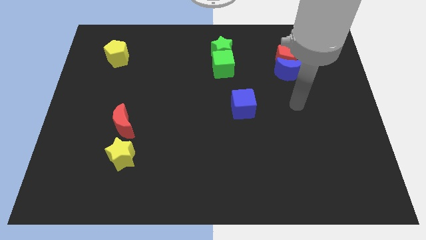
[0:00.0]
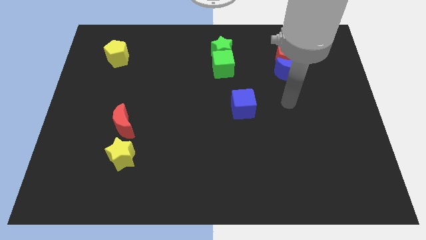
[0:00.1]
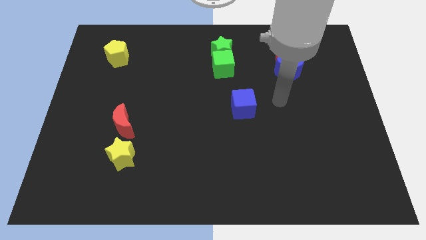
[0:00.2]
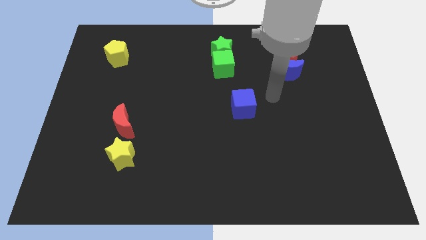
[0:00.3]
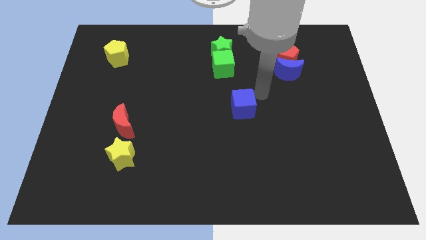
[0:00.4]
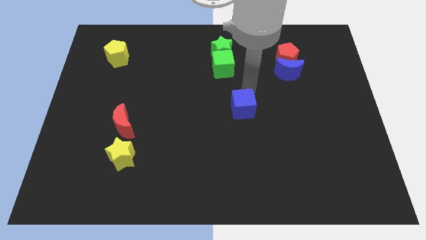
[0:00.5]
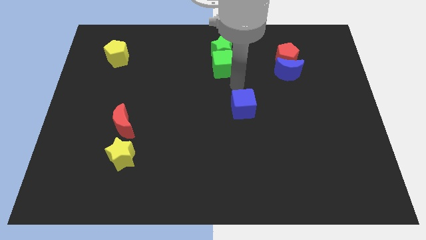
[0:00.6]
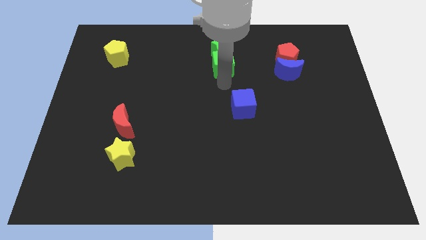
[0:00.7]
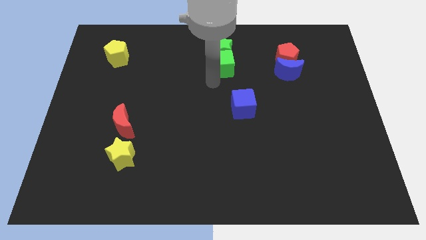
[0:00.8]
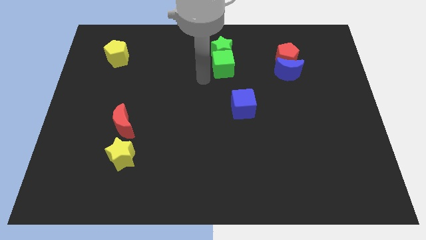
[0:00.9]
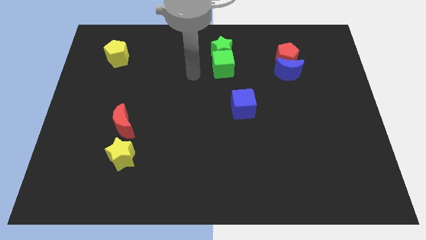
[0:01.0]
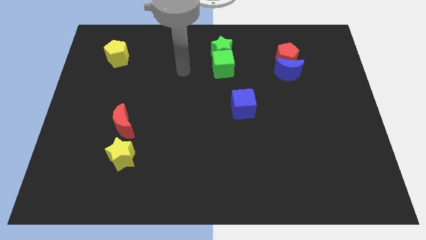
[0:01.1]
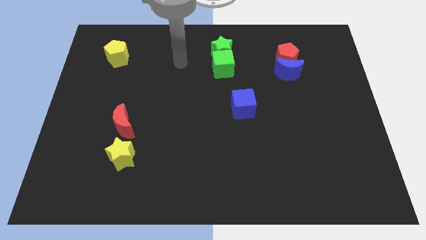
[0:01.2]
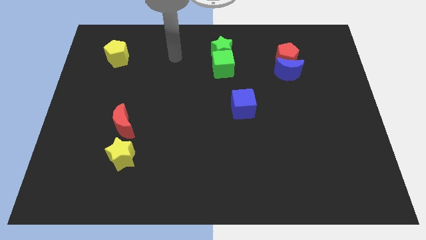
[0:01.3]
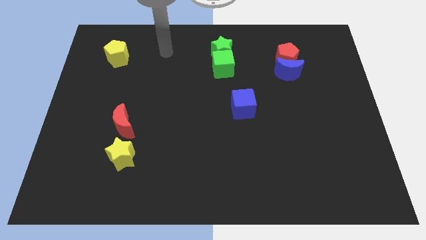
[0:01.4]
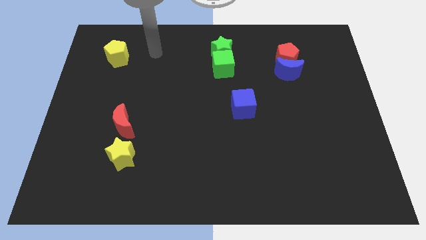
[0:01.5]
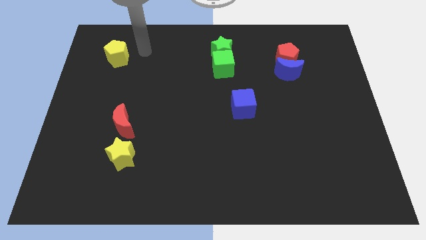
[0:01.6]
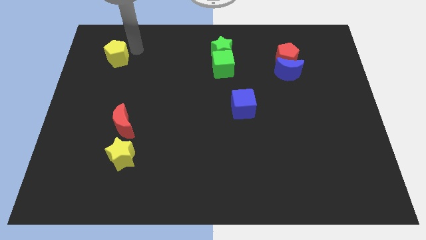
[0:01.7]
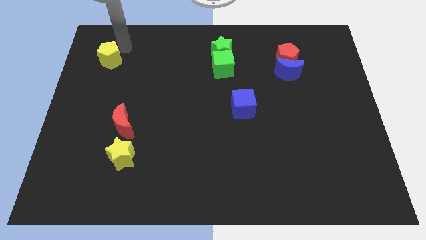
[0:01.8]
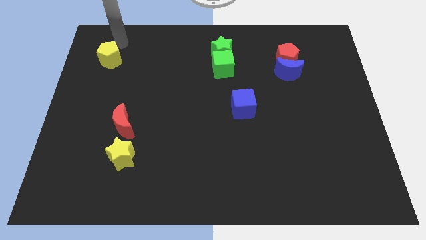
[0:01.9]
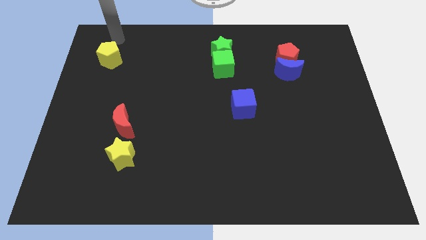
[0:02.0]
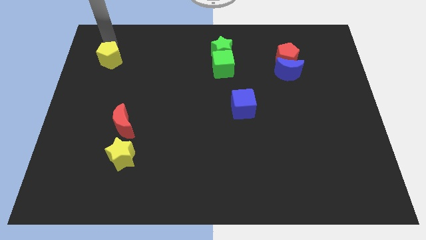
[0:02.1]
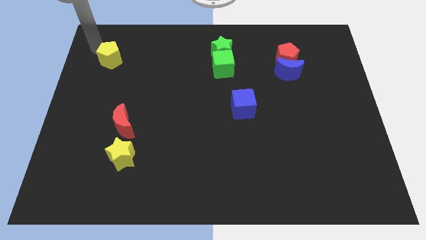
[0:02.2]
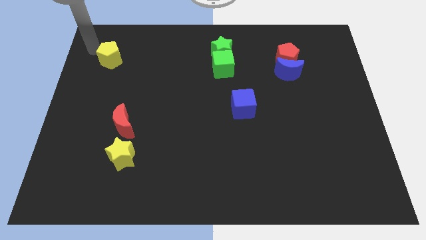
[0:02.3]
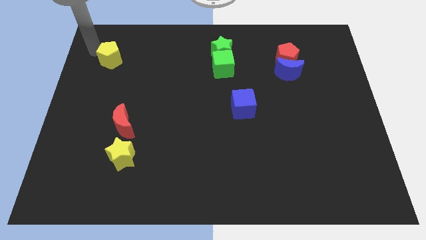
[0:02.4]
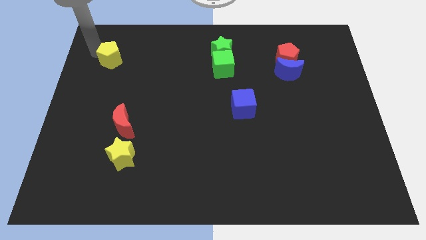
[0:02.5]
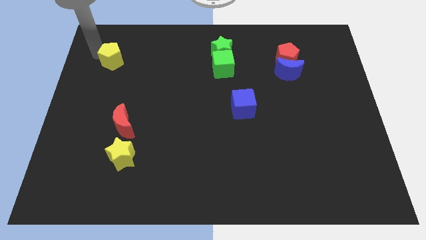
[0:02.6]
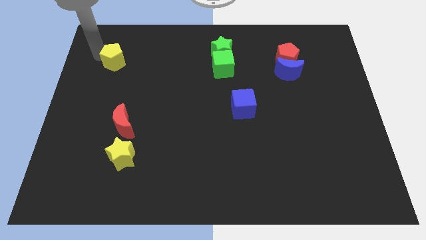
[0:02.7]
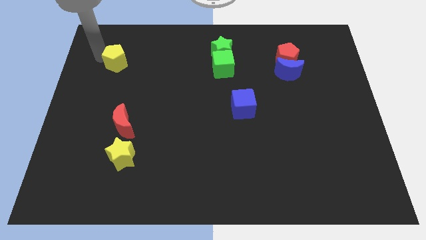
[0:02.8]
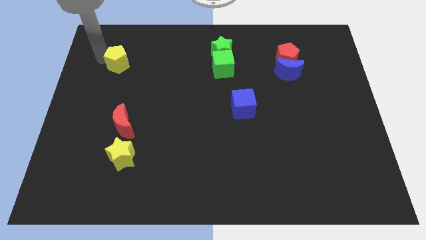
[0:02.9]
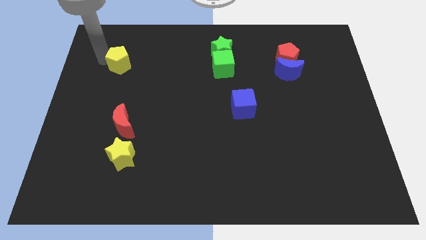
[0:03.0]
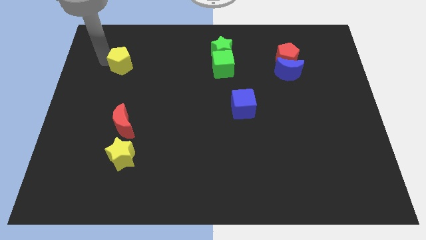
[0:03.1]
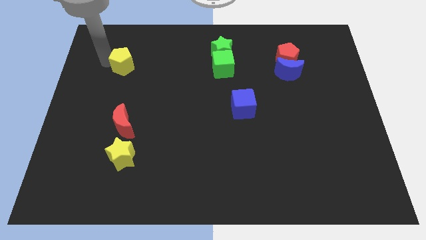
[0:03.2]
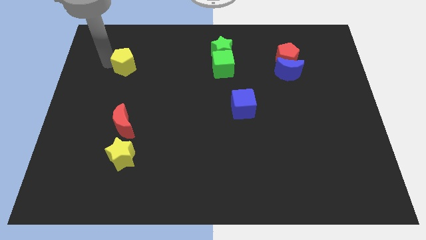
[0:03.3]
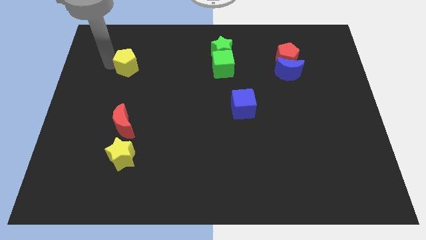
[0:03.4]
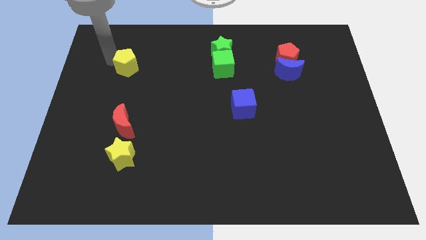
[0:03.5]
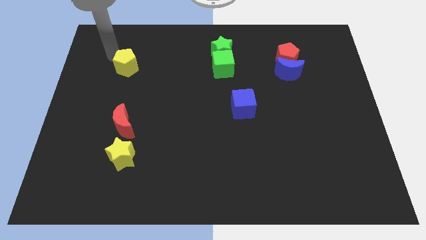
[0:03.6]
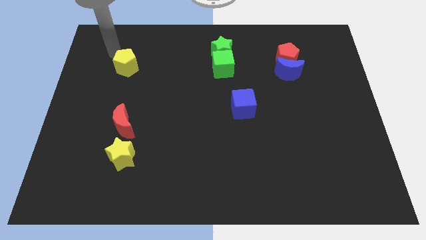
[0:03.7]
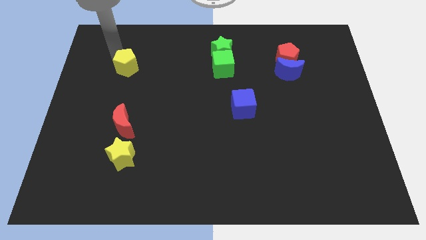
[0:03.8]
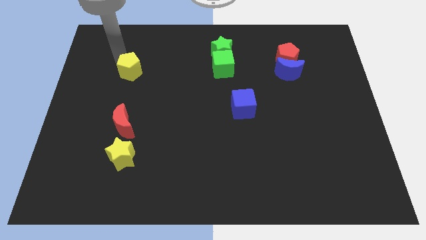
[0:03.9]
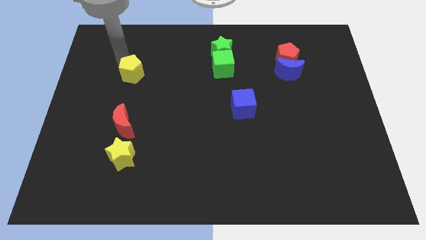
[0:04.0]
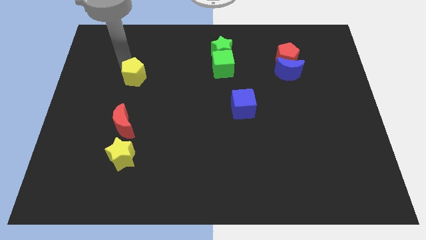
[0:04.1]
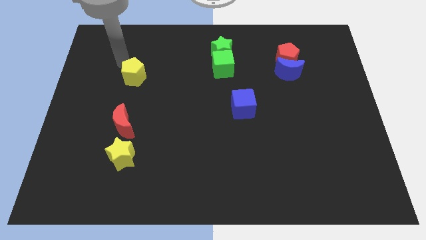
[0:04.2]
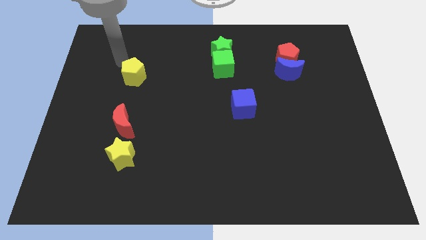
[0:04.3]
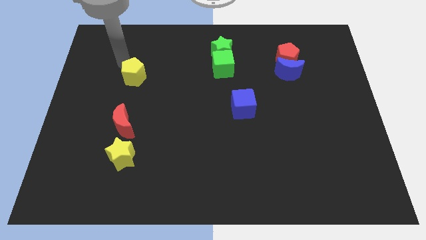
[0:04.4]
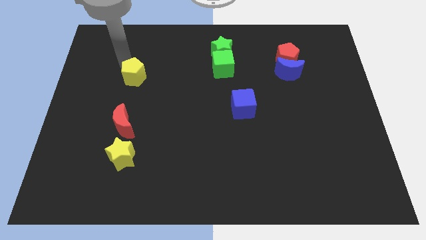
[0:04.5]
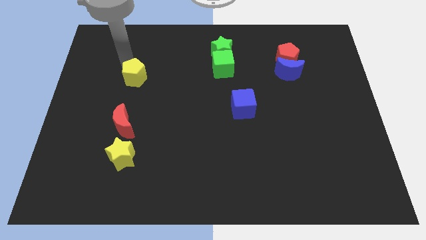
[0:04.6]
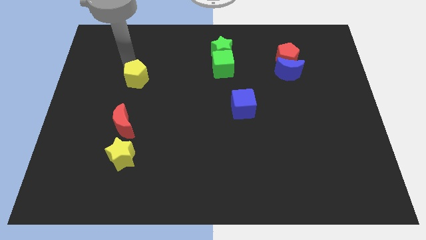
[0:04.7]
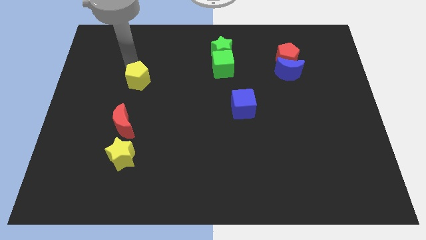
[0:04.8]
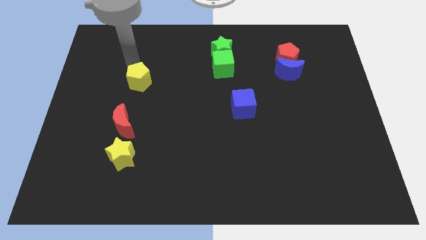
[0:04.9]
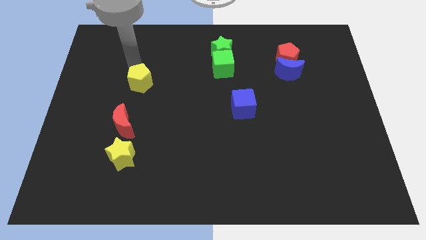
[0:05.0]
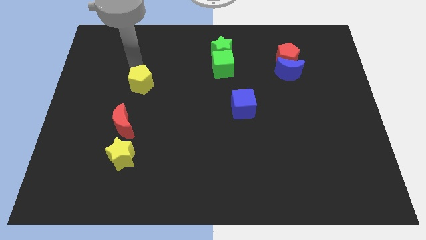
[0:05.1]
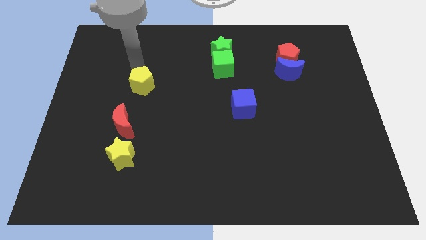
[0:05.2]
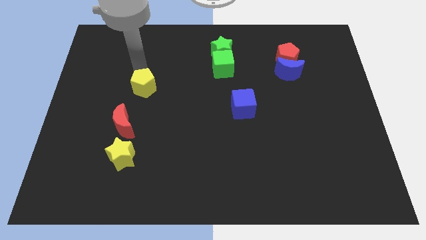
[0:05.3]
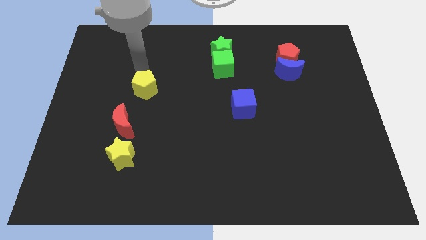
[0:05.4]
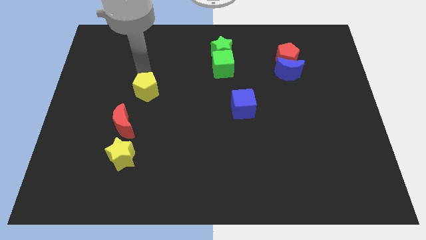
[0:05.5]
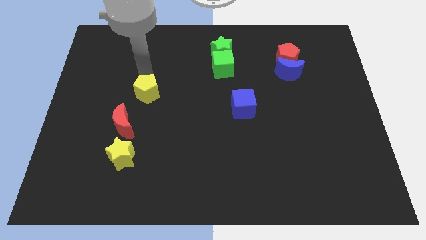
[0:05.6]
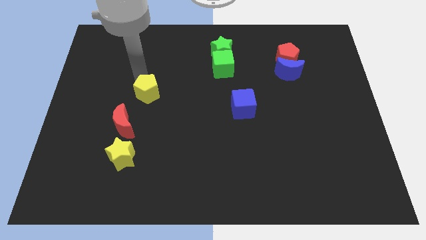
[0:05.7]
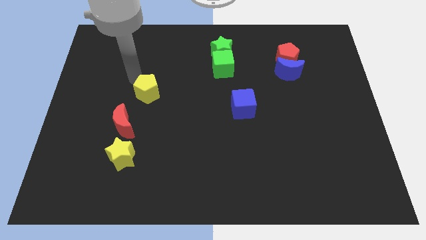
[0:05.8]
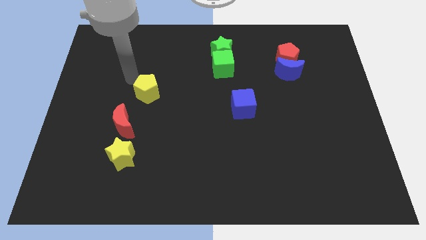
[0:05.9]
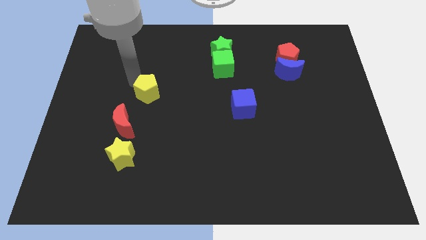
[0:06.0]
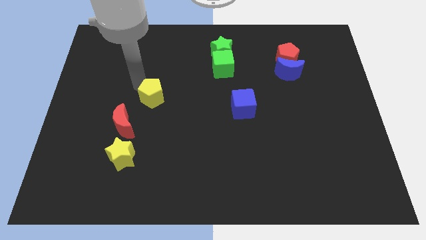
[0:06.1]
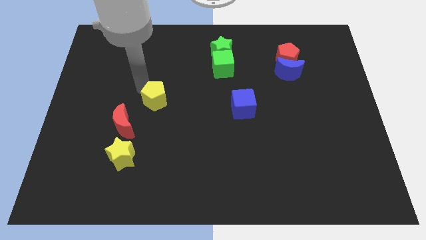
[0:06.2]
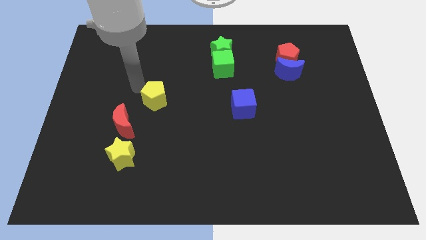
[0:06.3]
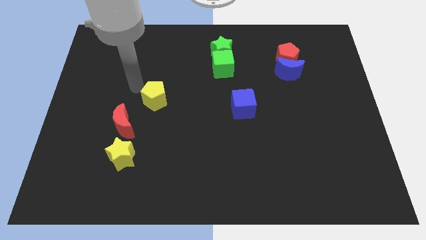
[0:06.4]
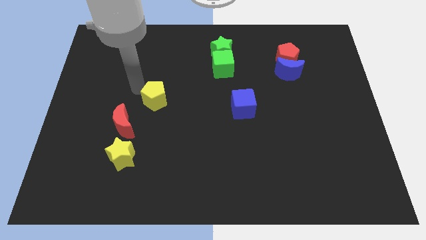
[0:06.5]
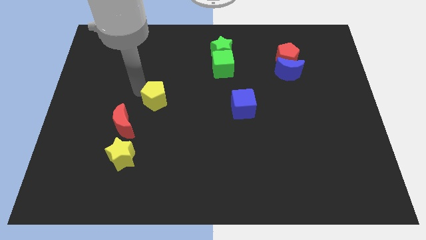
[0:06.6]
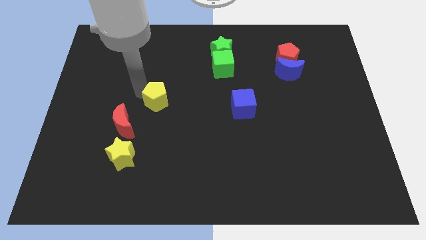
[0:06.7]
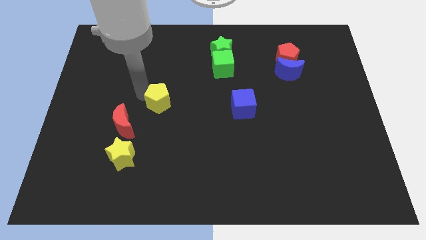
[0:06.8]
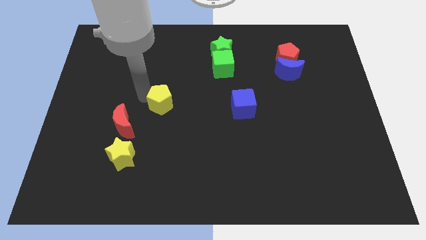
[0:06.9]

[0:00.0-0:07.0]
slide the yellow pentagon down and right

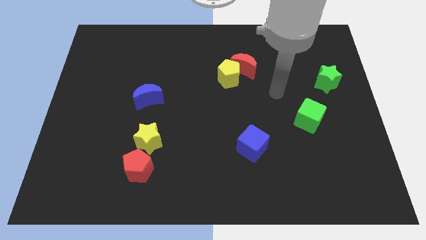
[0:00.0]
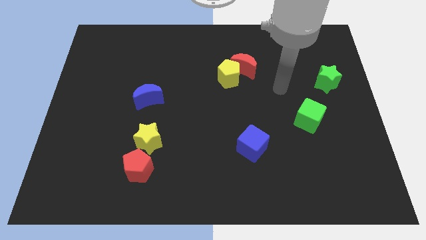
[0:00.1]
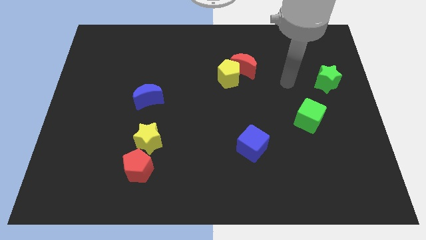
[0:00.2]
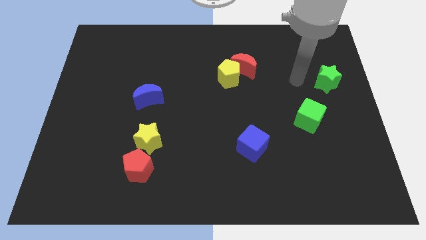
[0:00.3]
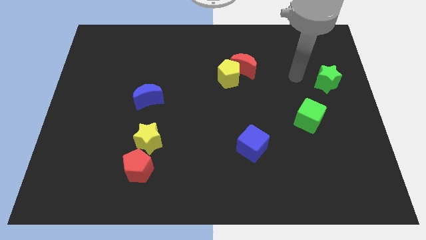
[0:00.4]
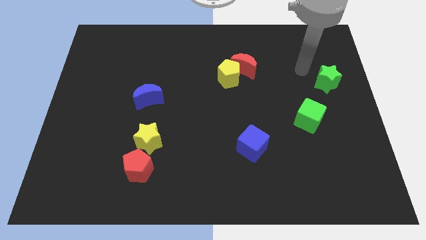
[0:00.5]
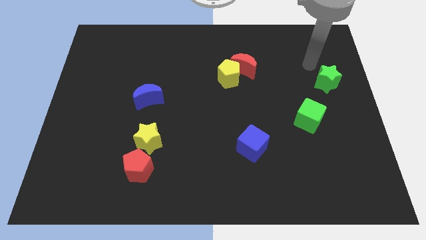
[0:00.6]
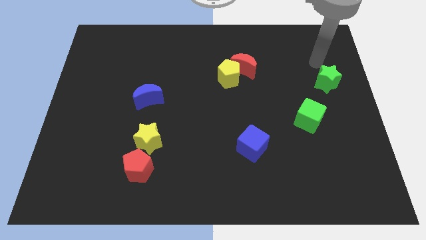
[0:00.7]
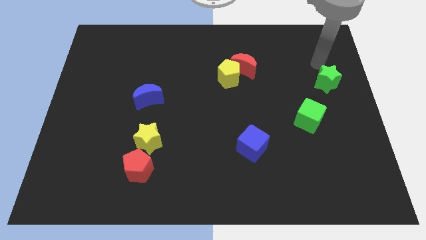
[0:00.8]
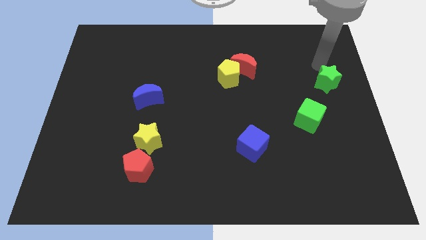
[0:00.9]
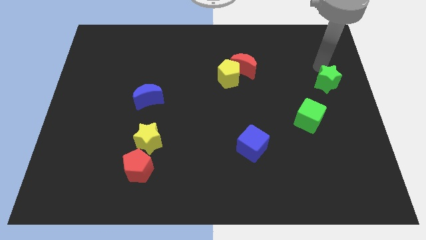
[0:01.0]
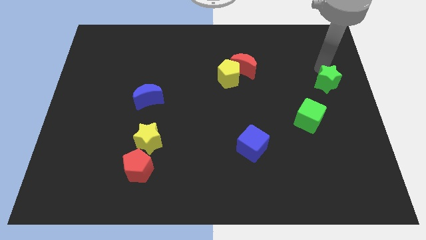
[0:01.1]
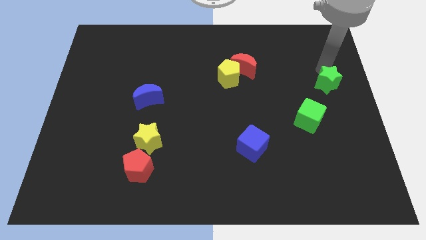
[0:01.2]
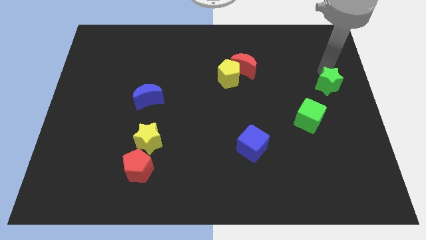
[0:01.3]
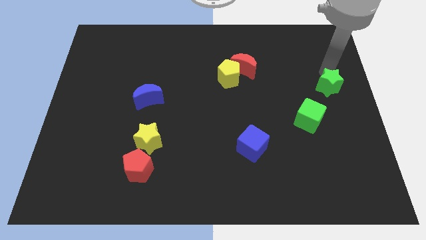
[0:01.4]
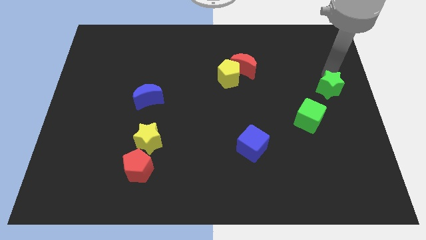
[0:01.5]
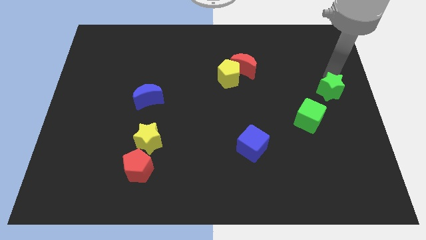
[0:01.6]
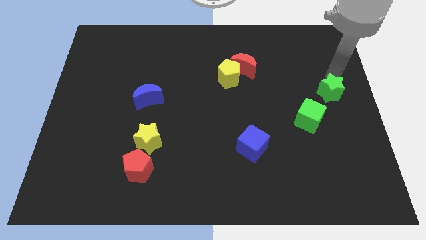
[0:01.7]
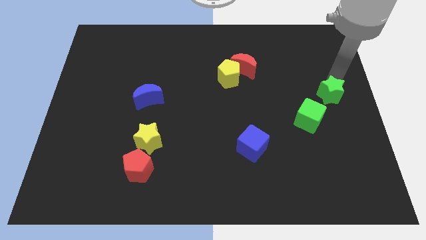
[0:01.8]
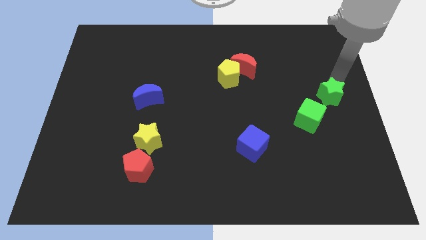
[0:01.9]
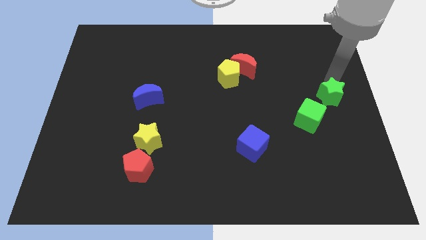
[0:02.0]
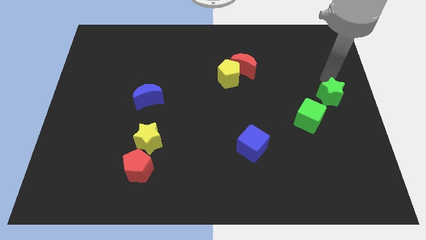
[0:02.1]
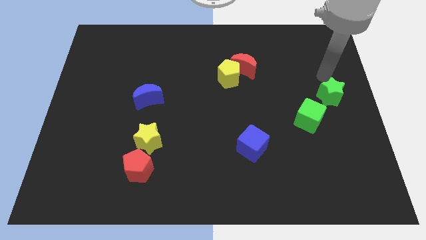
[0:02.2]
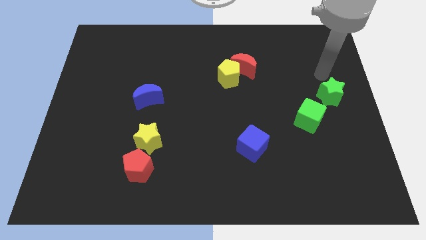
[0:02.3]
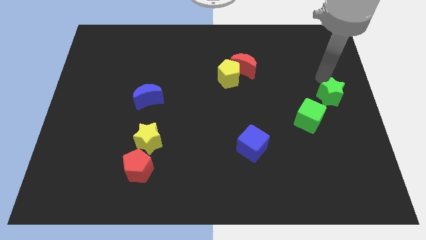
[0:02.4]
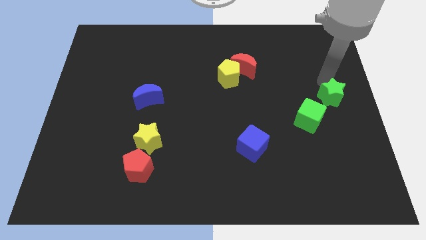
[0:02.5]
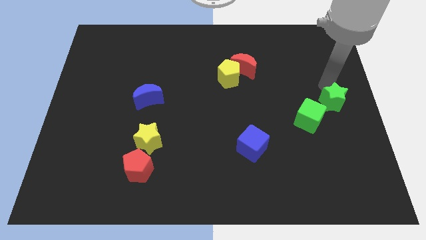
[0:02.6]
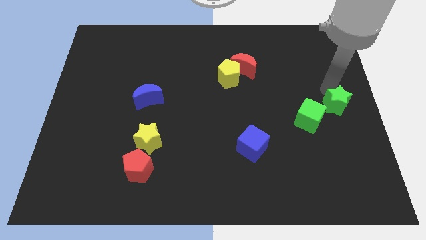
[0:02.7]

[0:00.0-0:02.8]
move the green star a little down
